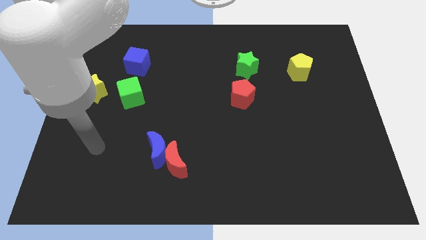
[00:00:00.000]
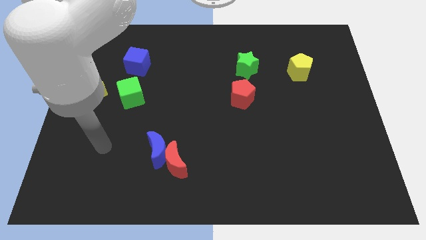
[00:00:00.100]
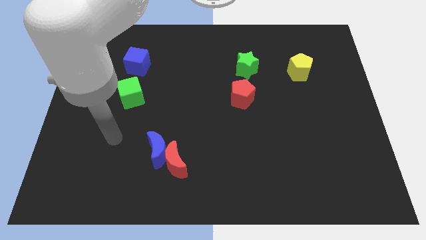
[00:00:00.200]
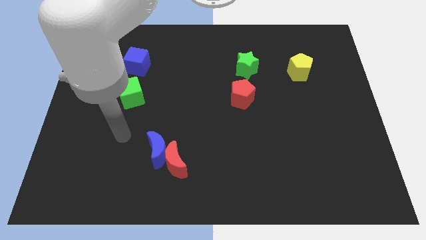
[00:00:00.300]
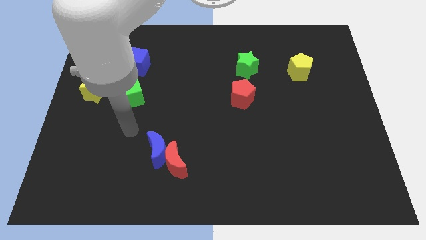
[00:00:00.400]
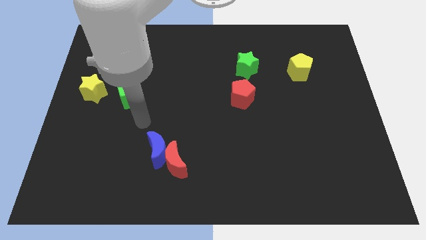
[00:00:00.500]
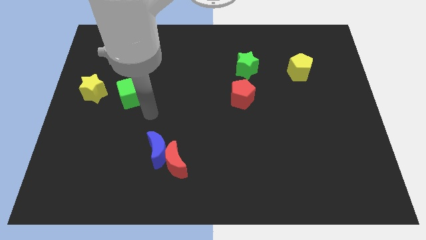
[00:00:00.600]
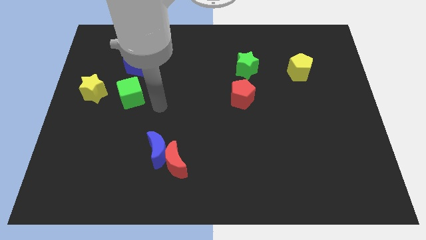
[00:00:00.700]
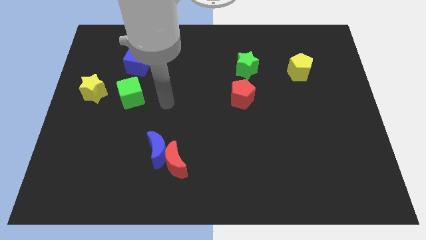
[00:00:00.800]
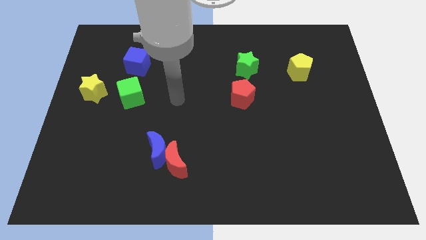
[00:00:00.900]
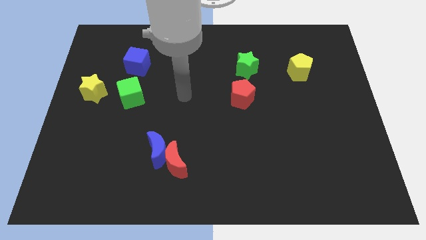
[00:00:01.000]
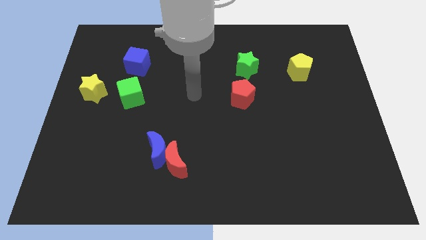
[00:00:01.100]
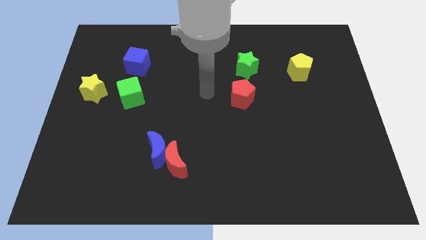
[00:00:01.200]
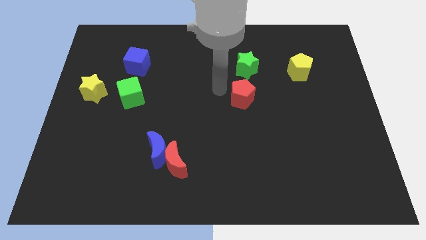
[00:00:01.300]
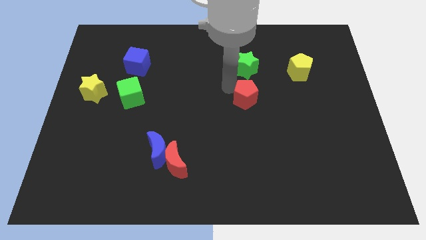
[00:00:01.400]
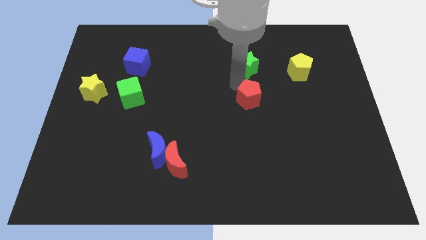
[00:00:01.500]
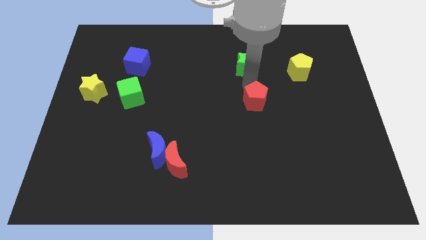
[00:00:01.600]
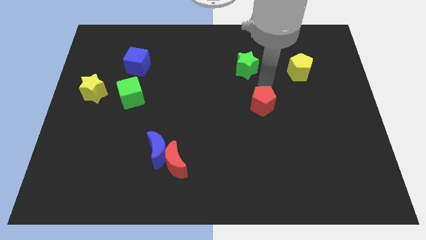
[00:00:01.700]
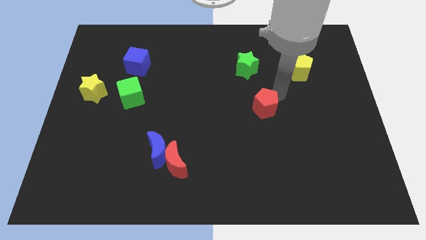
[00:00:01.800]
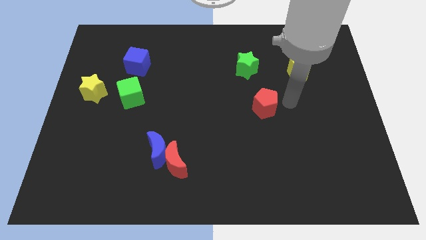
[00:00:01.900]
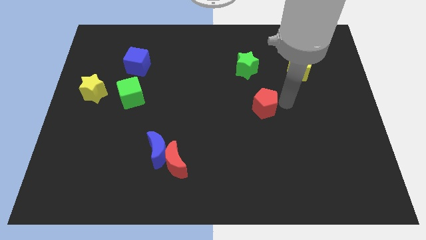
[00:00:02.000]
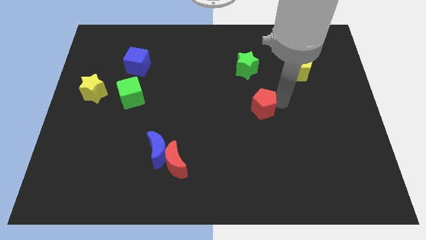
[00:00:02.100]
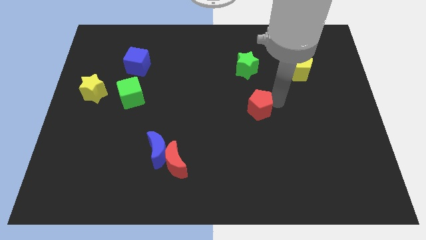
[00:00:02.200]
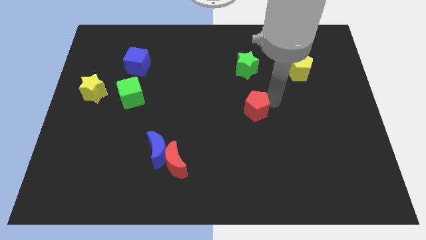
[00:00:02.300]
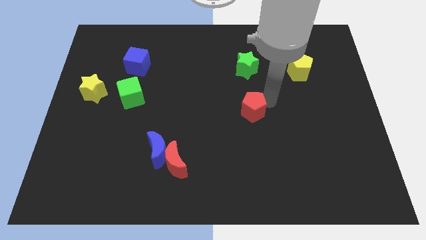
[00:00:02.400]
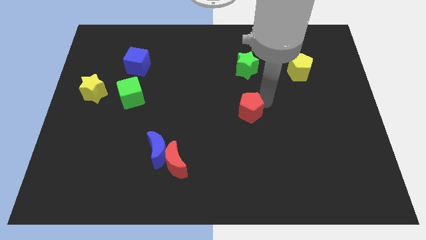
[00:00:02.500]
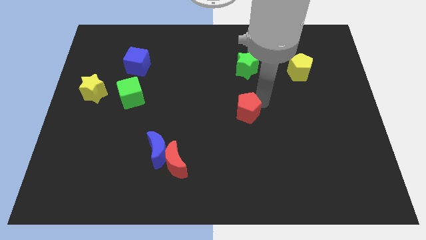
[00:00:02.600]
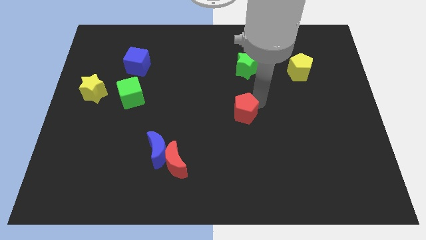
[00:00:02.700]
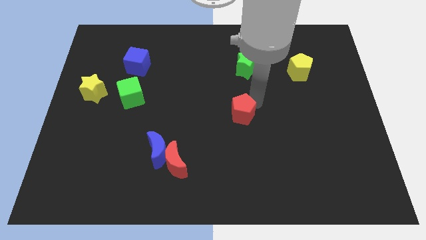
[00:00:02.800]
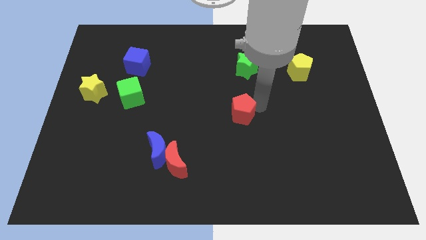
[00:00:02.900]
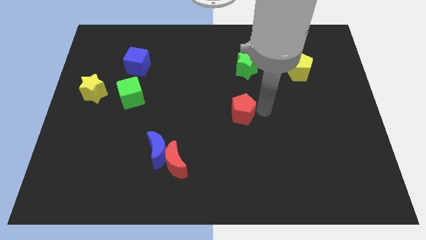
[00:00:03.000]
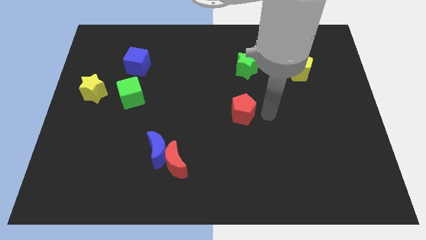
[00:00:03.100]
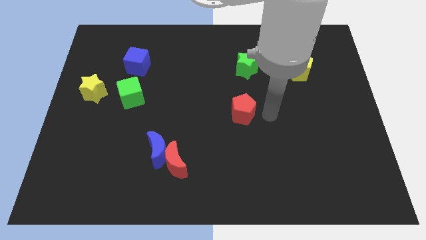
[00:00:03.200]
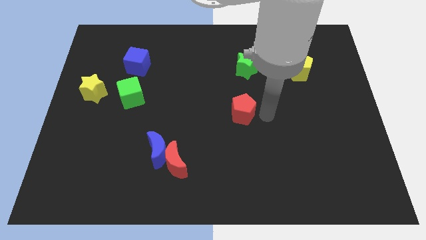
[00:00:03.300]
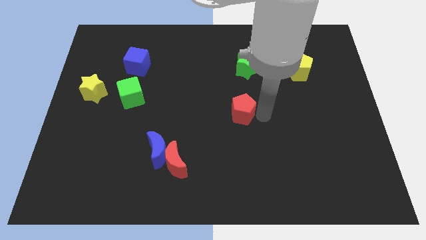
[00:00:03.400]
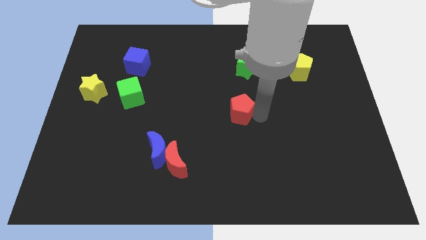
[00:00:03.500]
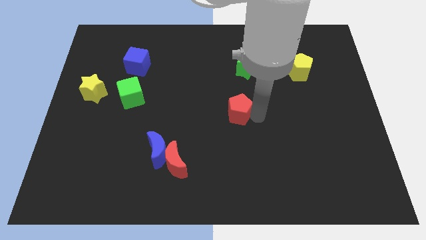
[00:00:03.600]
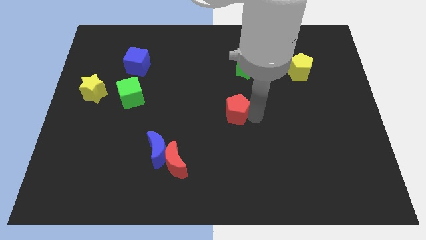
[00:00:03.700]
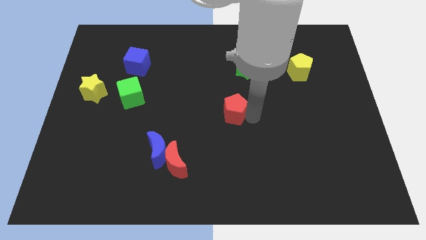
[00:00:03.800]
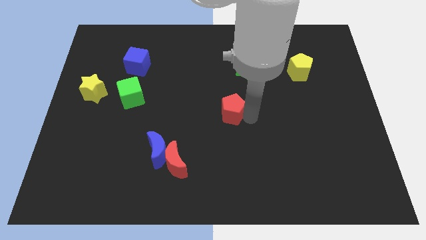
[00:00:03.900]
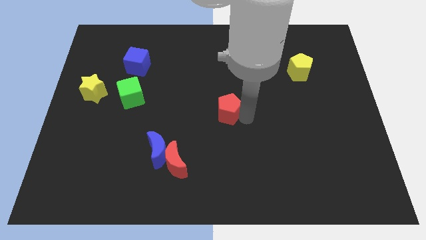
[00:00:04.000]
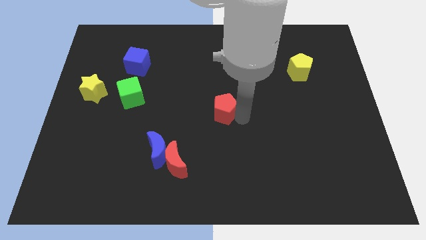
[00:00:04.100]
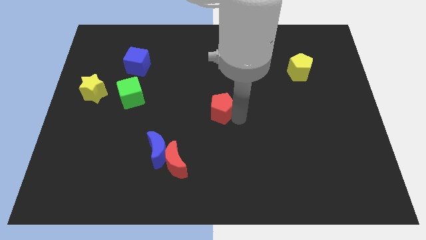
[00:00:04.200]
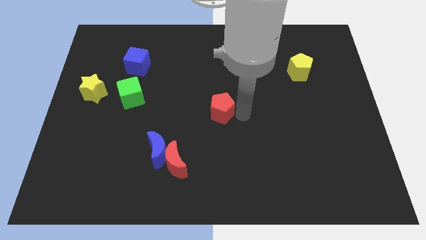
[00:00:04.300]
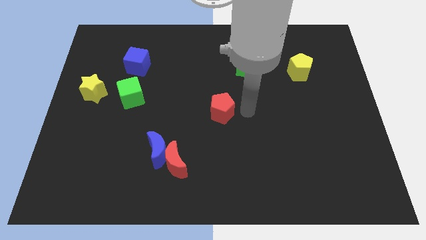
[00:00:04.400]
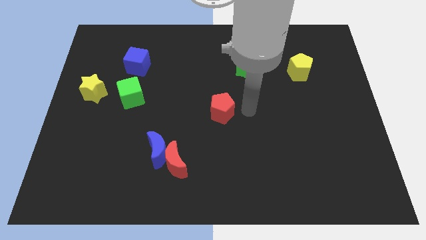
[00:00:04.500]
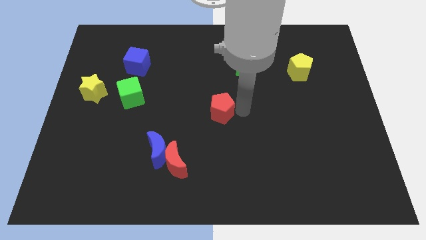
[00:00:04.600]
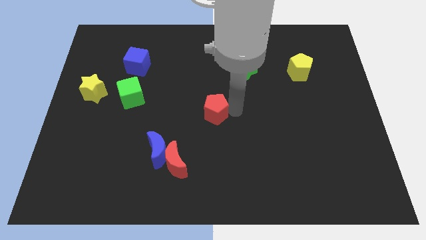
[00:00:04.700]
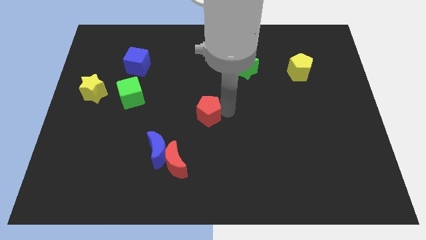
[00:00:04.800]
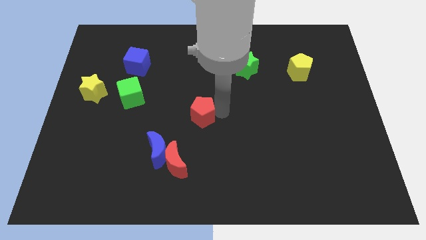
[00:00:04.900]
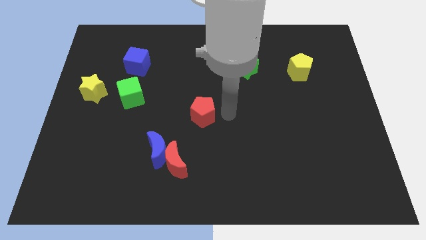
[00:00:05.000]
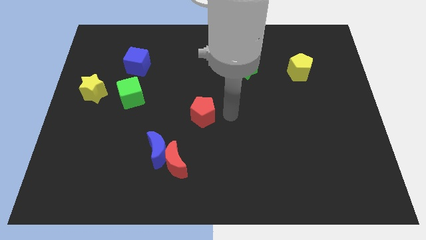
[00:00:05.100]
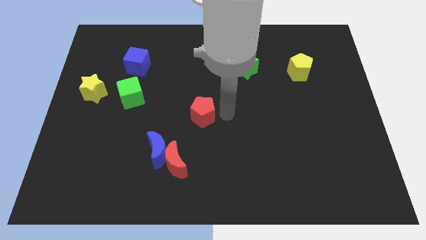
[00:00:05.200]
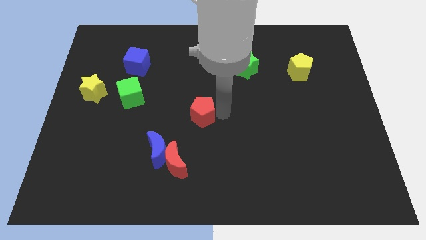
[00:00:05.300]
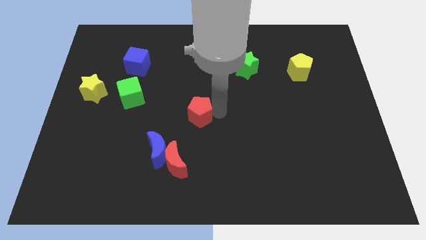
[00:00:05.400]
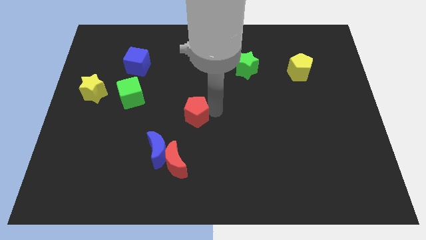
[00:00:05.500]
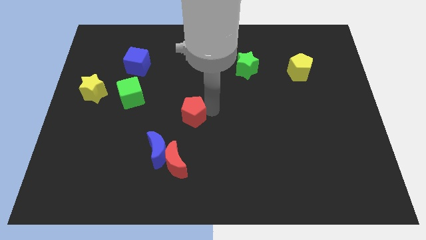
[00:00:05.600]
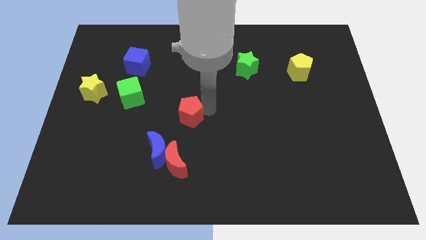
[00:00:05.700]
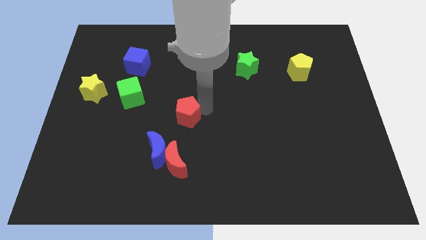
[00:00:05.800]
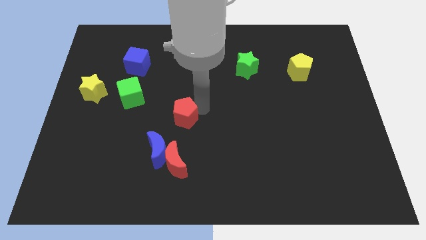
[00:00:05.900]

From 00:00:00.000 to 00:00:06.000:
move the red pentagon to the top side of the blue moon

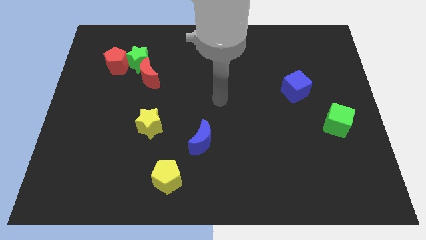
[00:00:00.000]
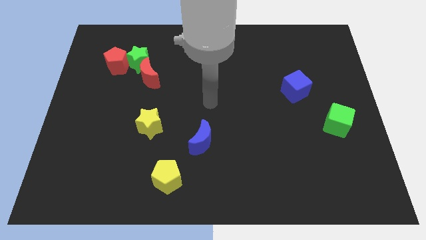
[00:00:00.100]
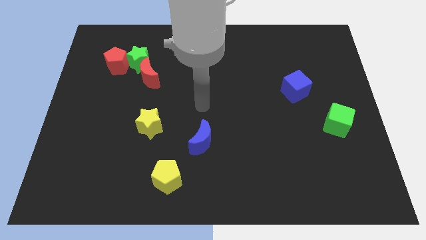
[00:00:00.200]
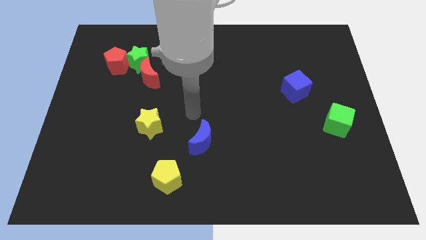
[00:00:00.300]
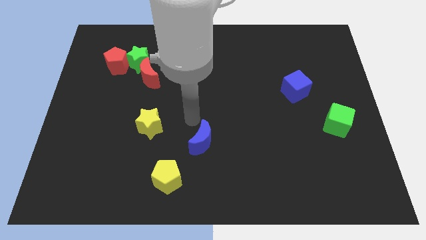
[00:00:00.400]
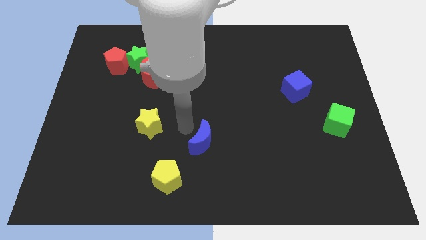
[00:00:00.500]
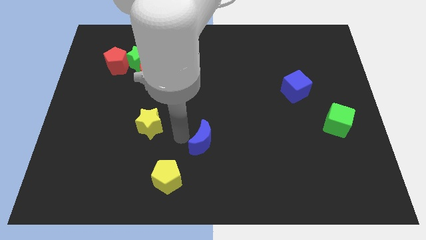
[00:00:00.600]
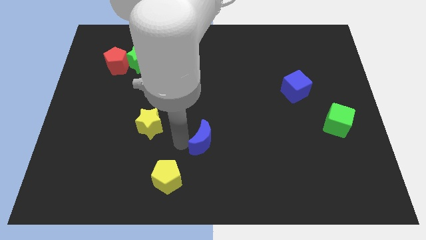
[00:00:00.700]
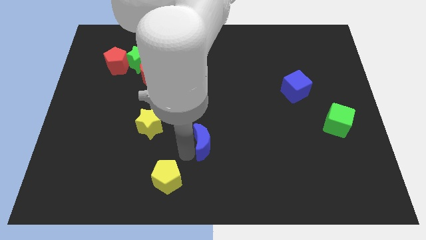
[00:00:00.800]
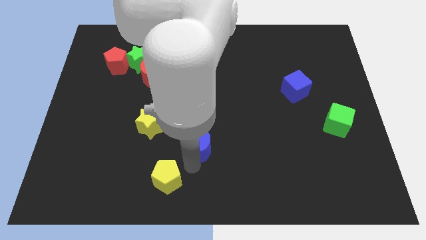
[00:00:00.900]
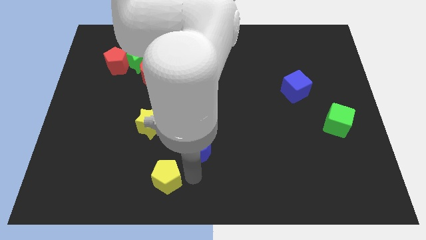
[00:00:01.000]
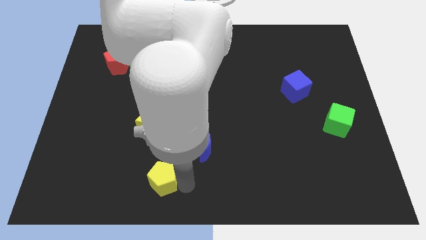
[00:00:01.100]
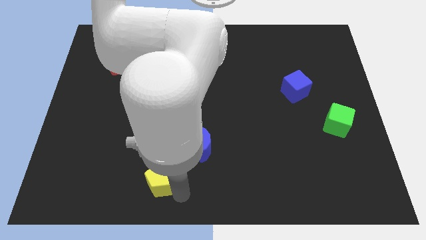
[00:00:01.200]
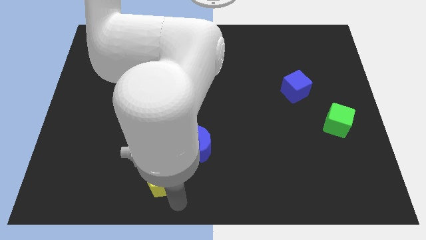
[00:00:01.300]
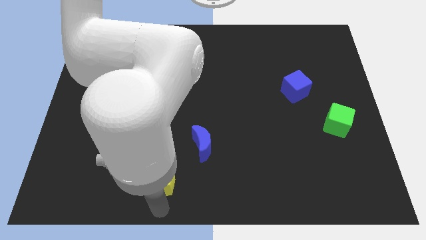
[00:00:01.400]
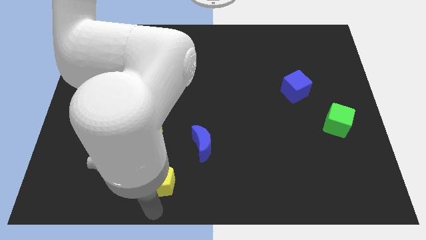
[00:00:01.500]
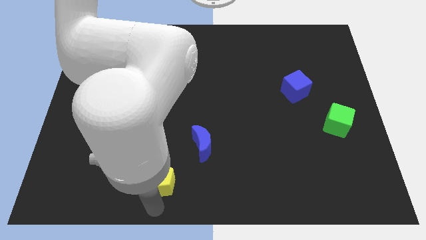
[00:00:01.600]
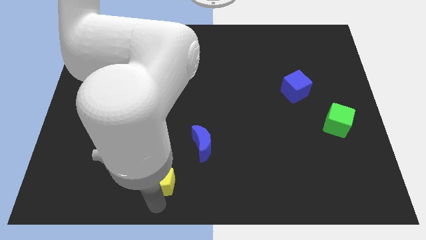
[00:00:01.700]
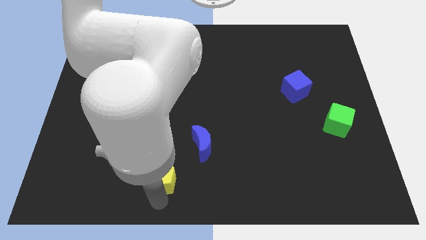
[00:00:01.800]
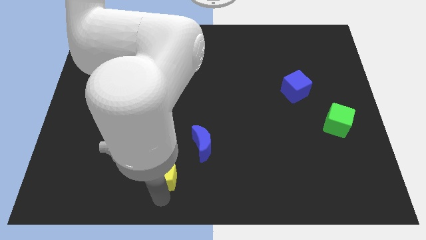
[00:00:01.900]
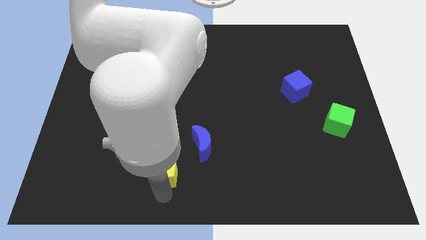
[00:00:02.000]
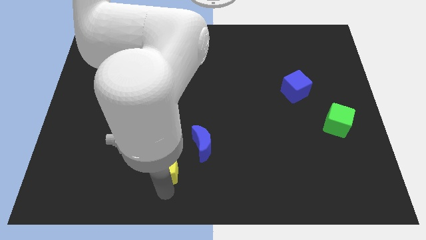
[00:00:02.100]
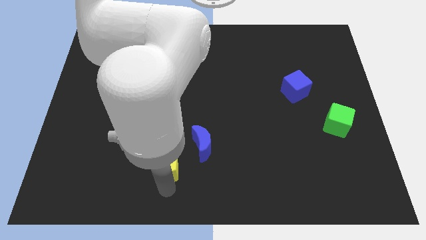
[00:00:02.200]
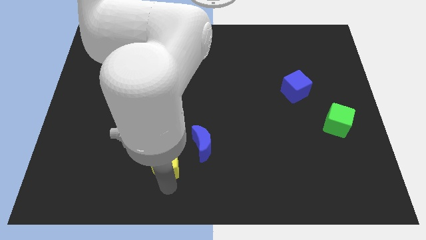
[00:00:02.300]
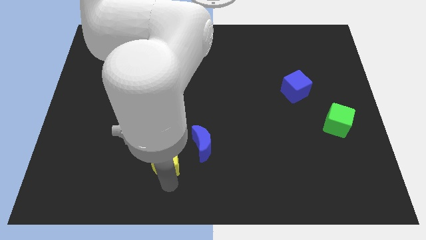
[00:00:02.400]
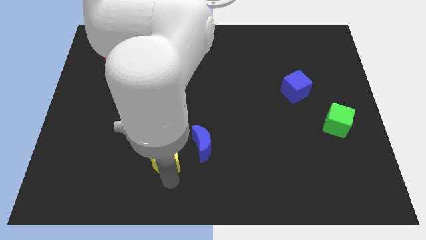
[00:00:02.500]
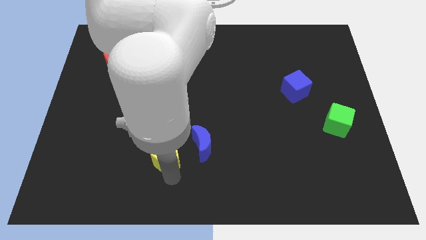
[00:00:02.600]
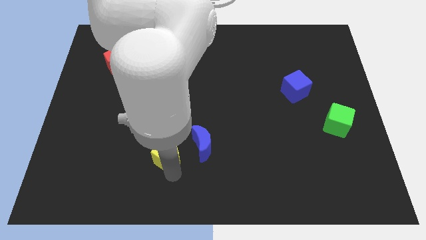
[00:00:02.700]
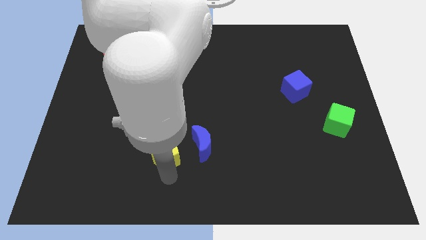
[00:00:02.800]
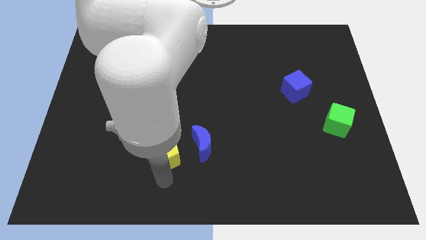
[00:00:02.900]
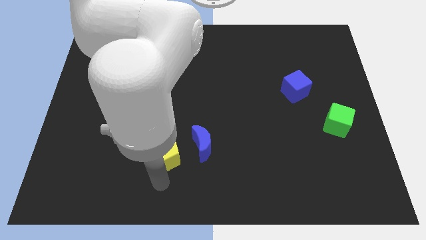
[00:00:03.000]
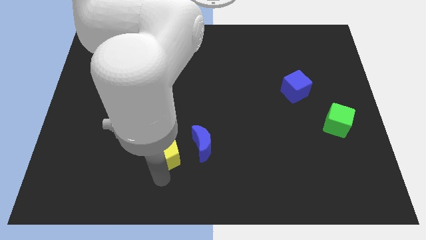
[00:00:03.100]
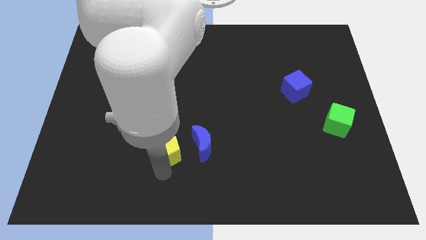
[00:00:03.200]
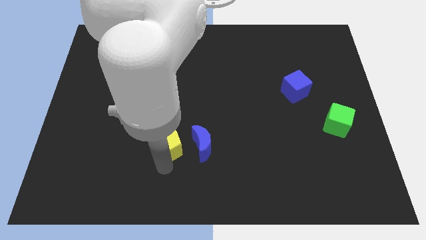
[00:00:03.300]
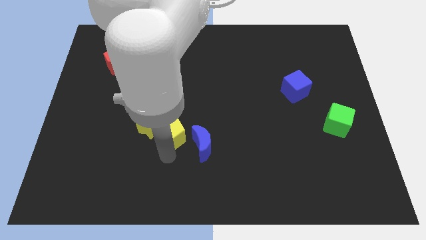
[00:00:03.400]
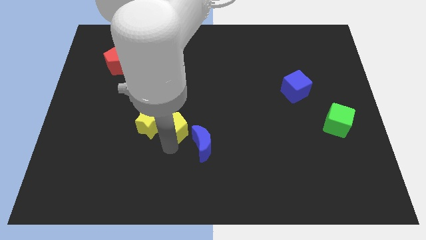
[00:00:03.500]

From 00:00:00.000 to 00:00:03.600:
move the yellow pentagon to the top right of the yellow star
